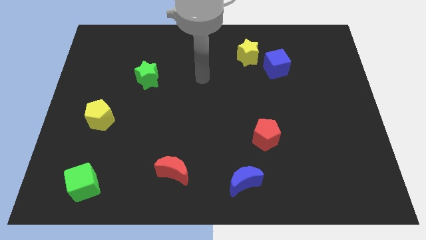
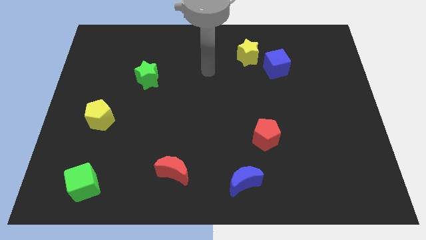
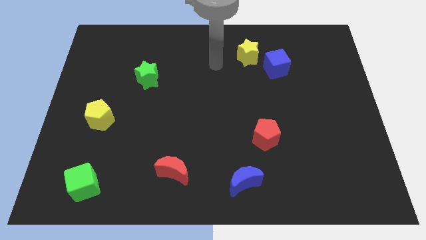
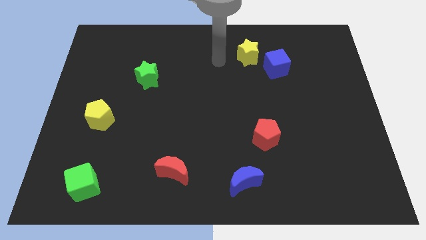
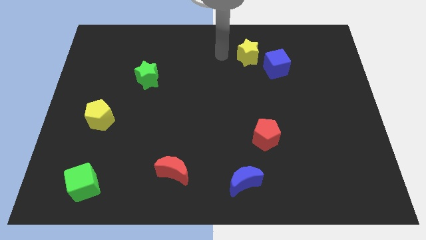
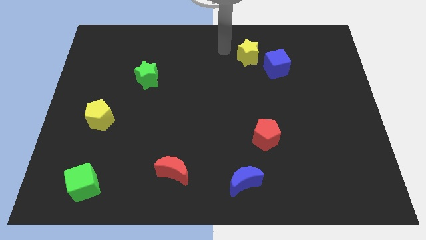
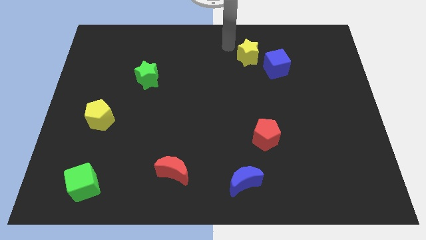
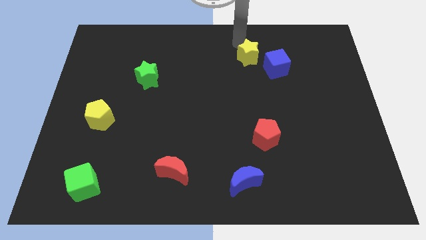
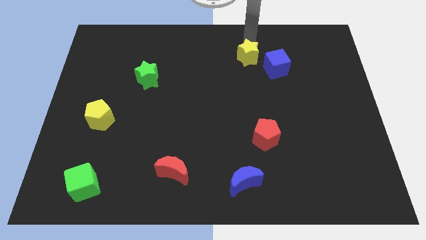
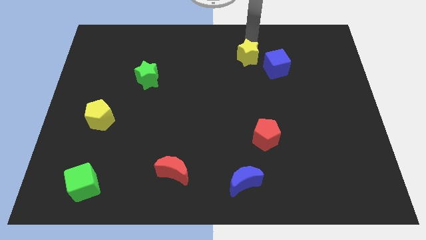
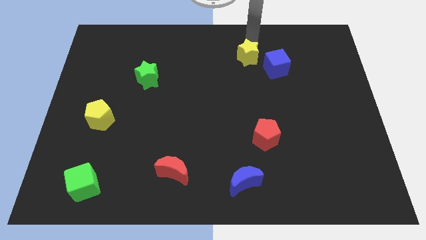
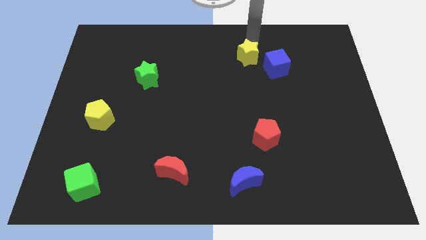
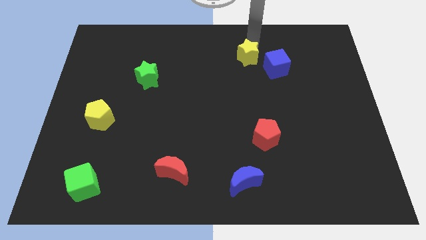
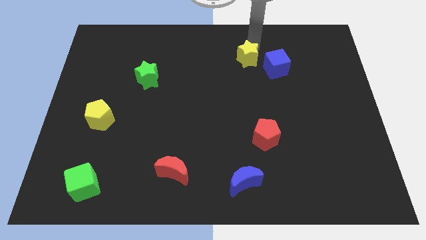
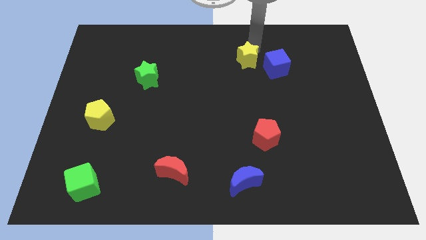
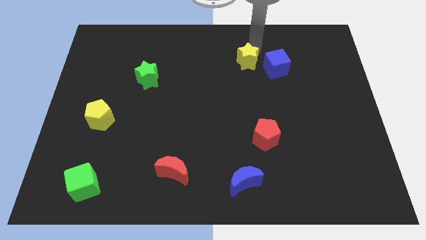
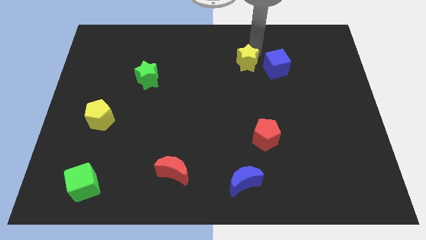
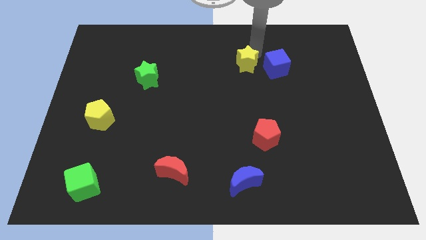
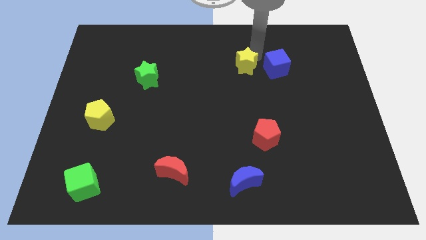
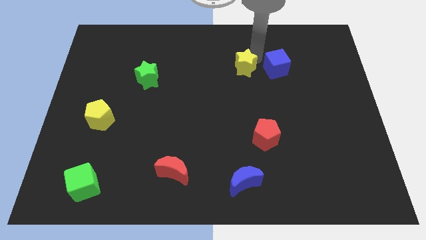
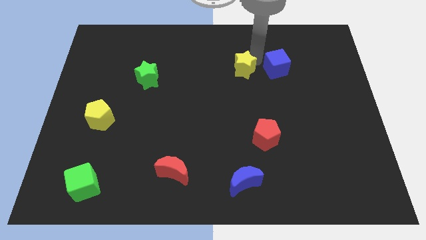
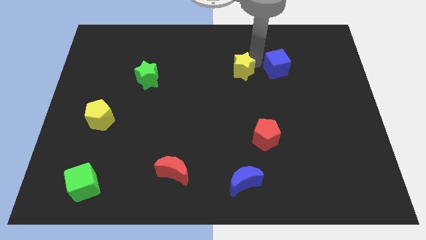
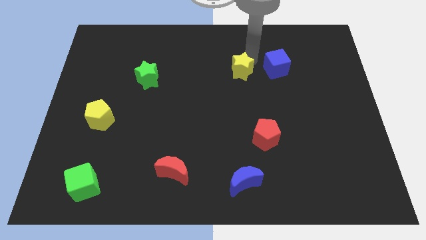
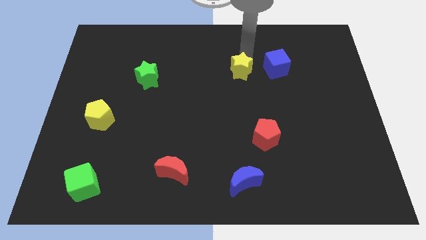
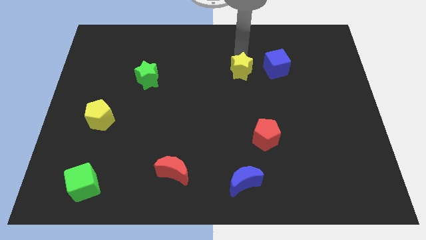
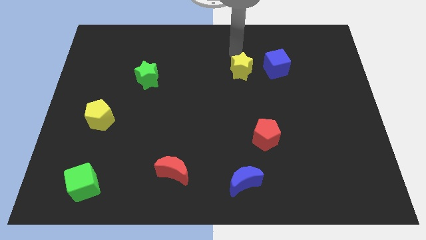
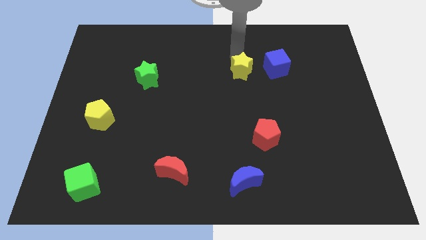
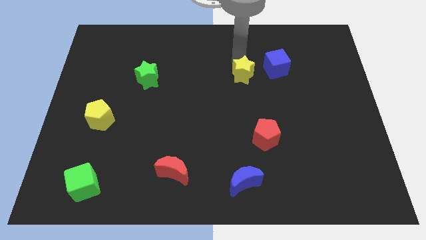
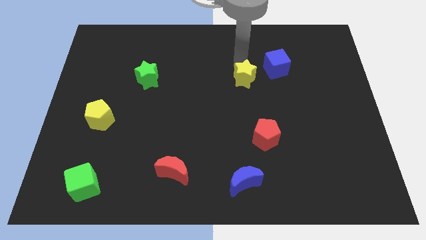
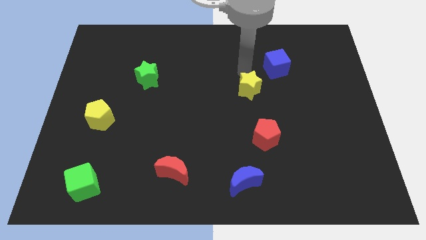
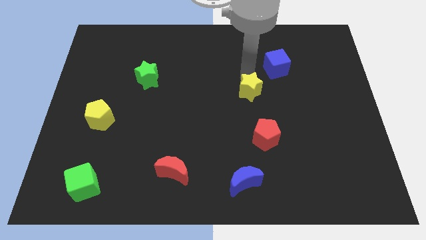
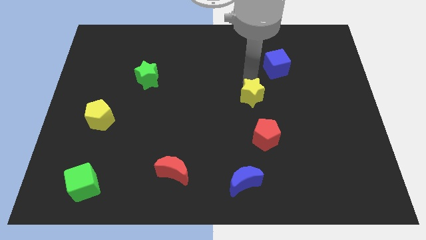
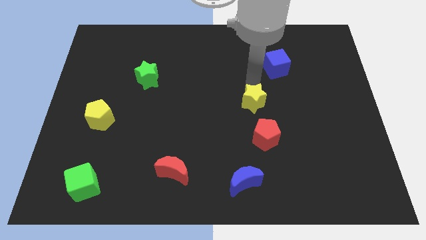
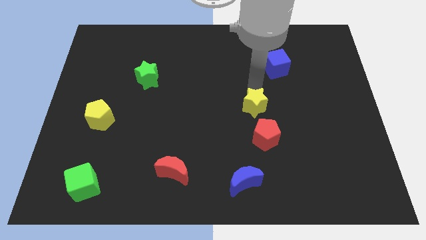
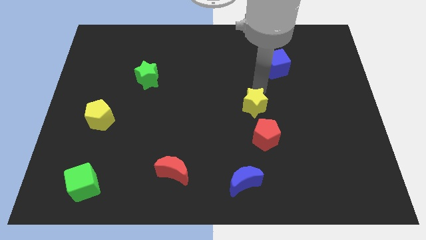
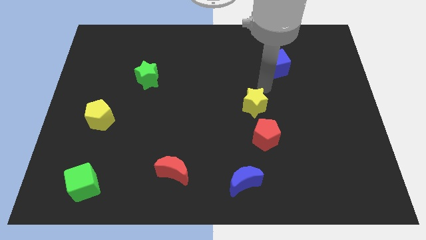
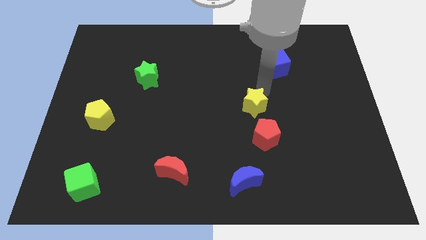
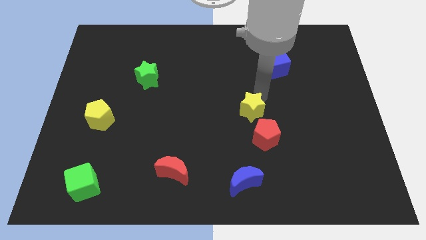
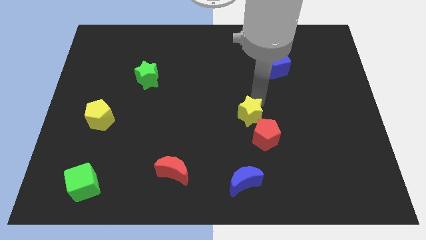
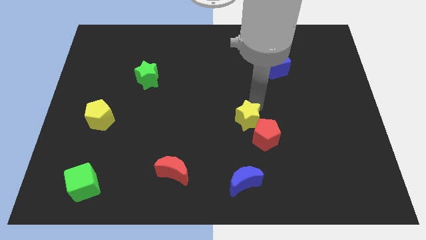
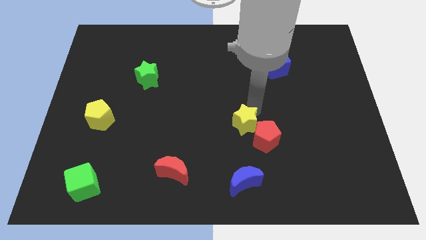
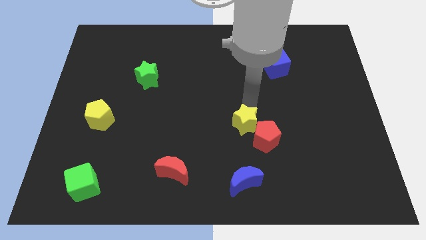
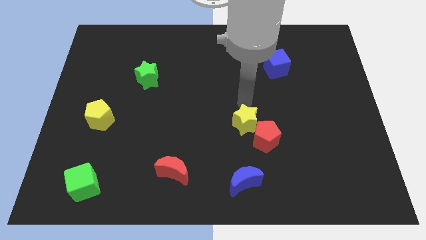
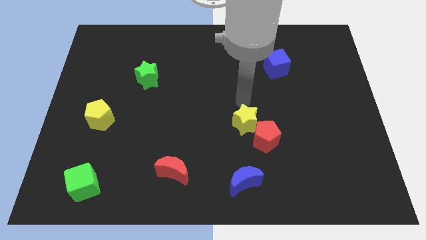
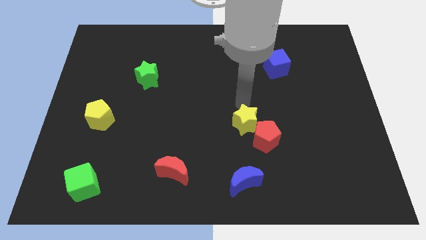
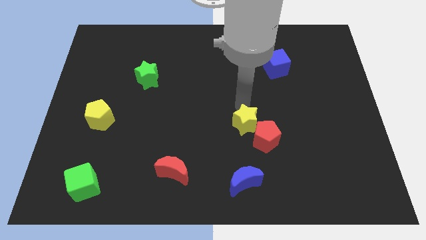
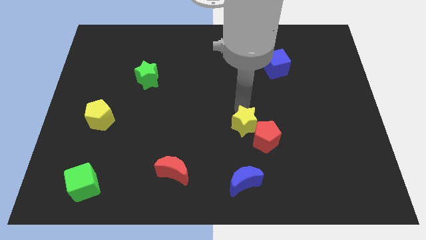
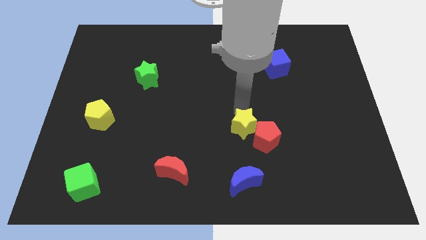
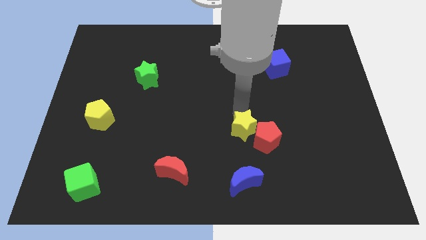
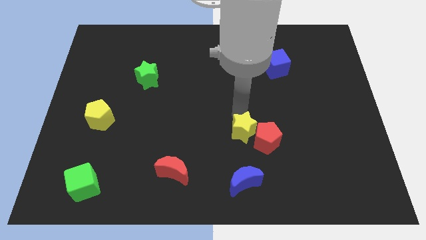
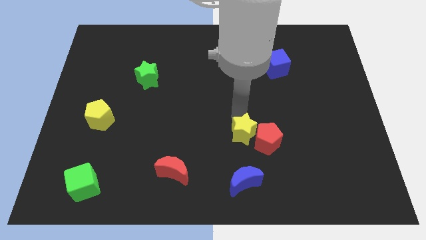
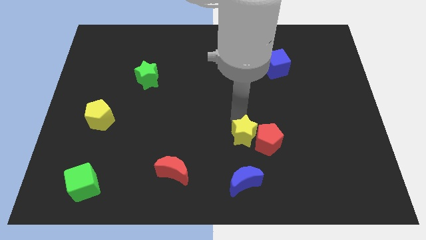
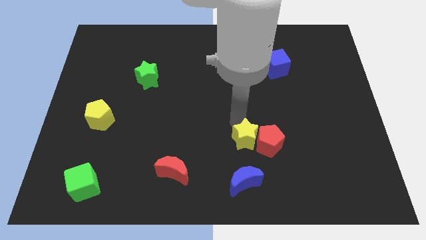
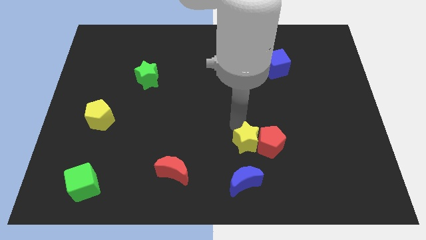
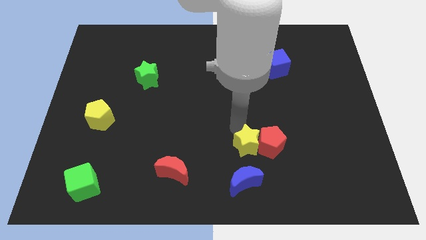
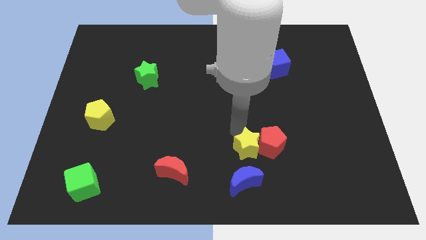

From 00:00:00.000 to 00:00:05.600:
put the yellow star to the top right of the blue moon

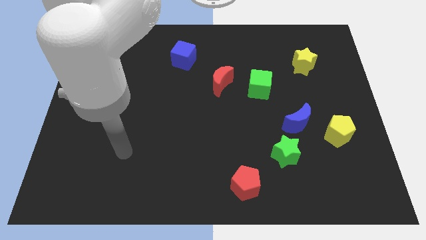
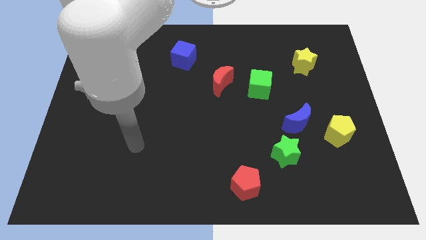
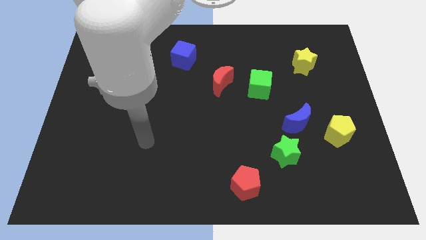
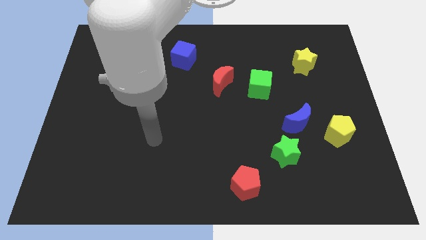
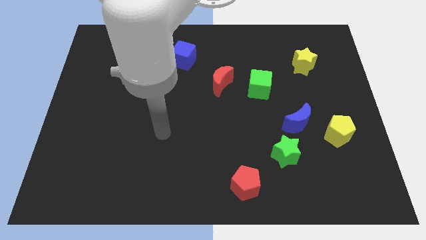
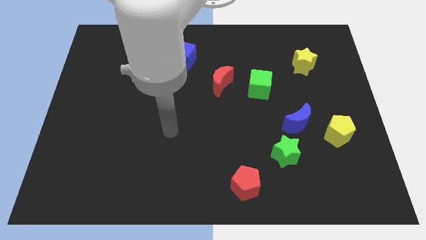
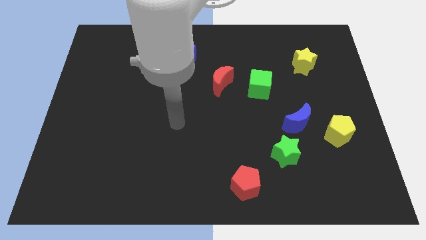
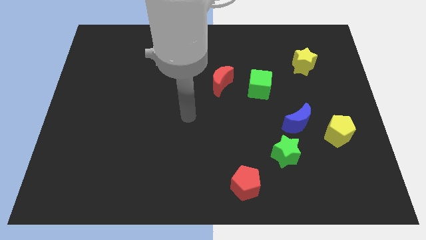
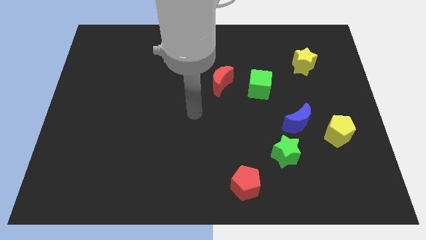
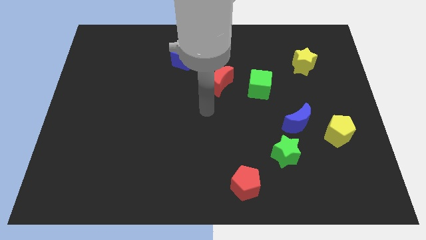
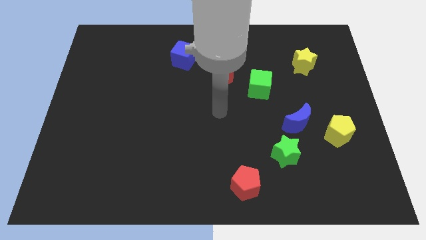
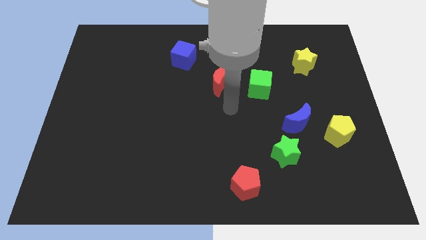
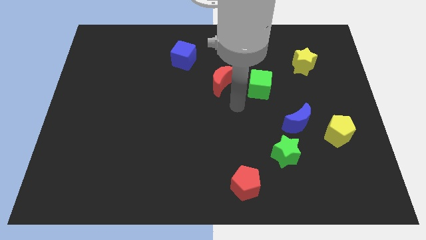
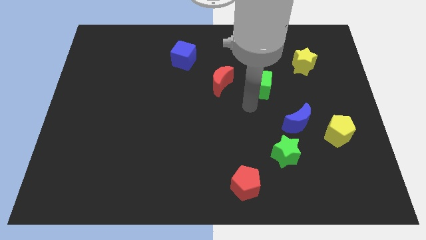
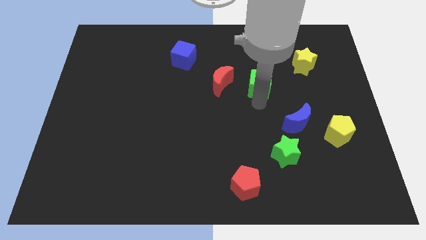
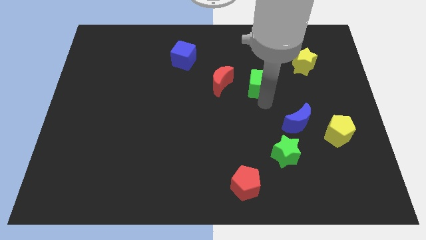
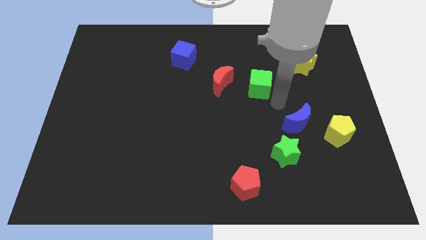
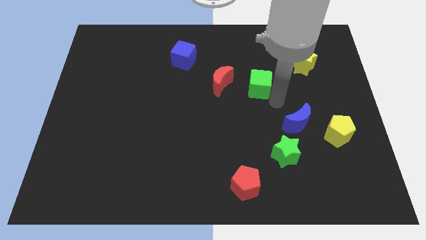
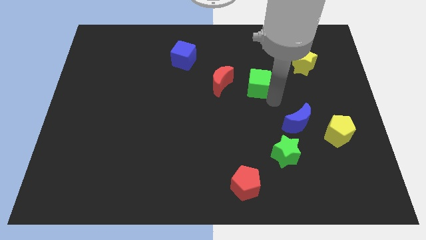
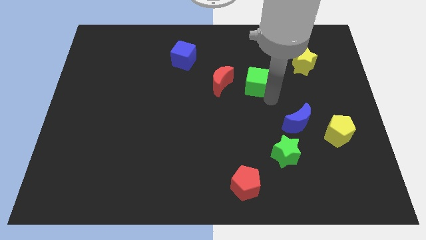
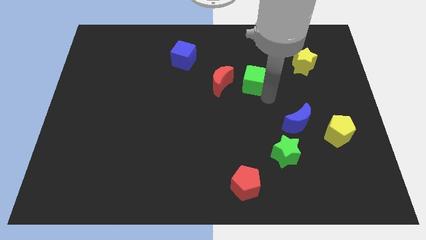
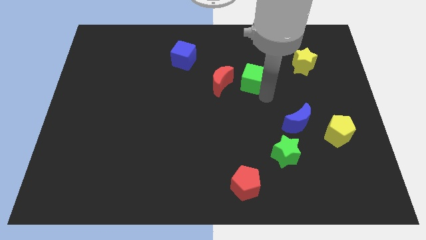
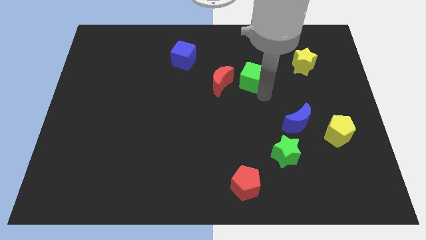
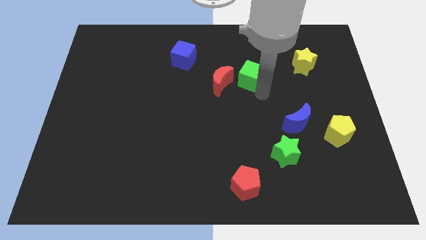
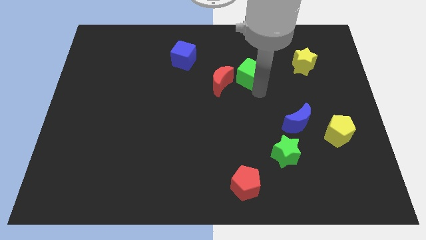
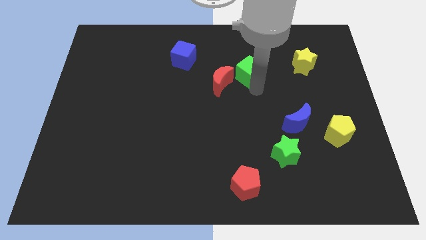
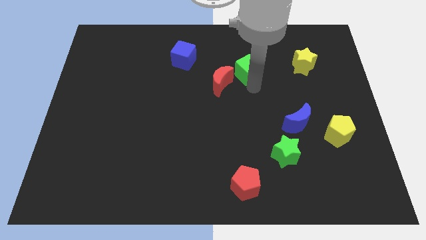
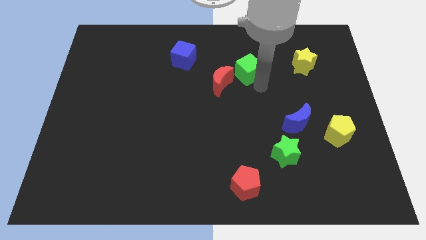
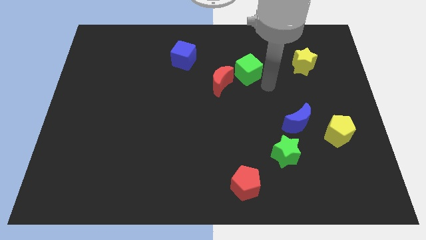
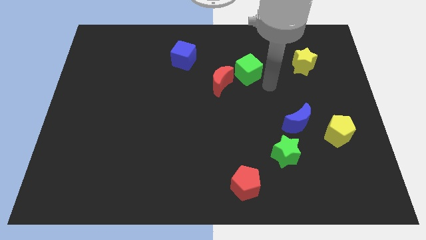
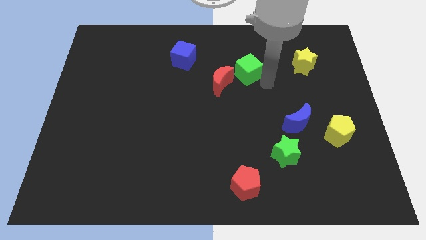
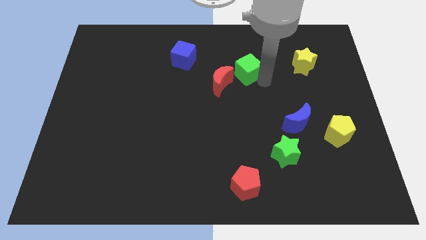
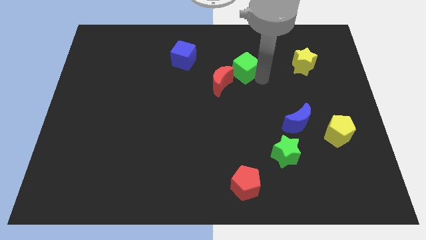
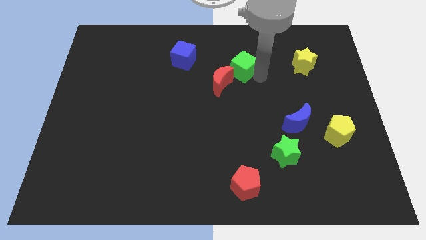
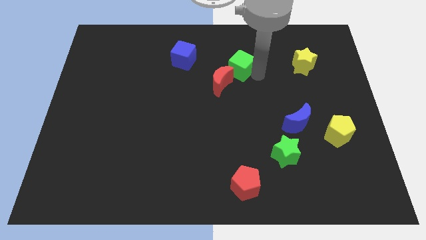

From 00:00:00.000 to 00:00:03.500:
push the green cube right of the blue cube
